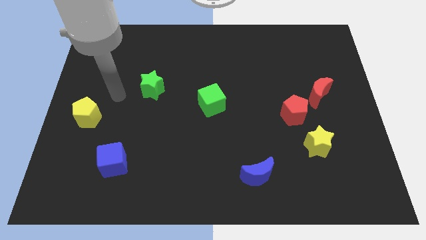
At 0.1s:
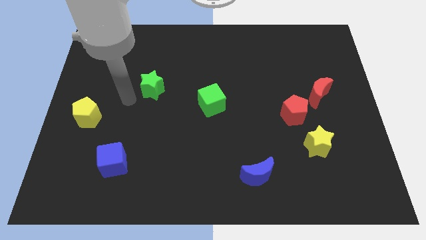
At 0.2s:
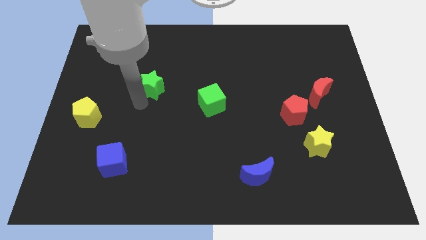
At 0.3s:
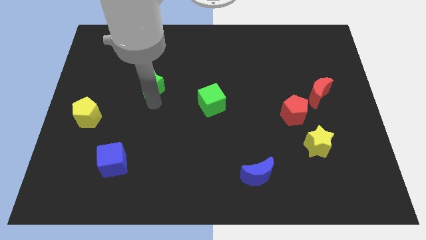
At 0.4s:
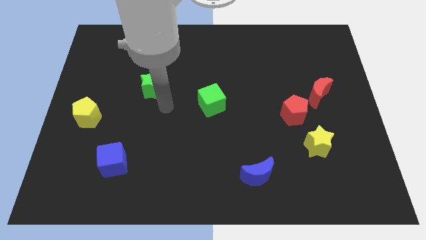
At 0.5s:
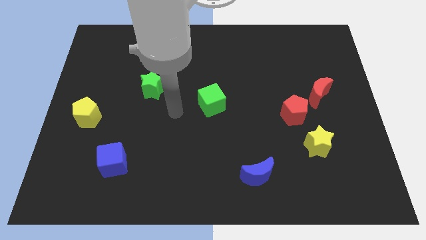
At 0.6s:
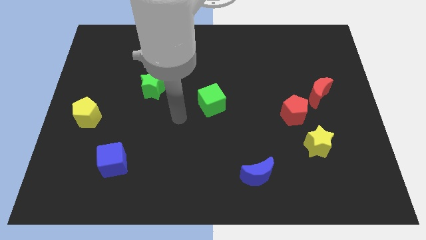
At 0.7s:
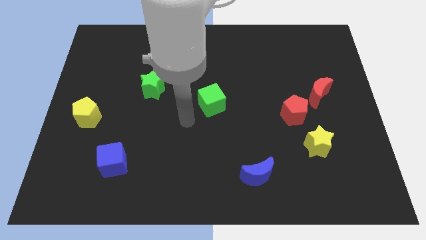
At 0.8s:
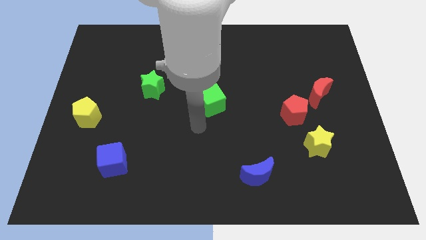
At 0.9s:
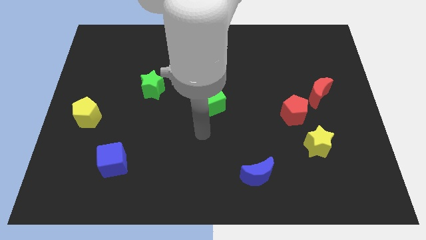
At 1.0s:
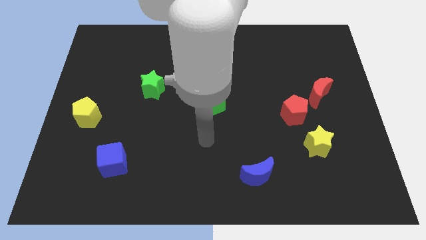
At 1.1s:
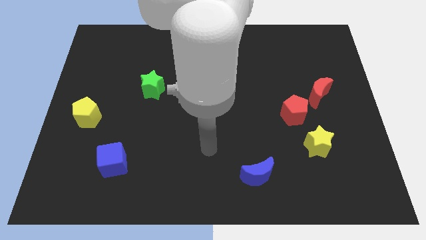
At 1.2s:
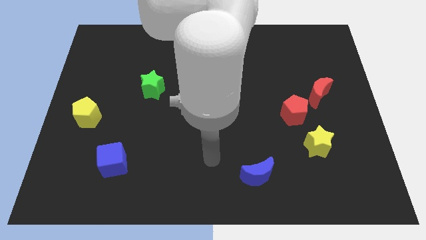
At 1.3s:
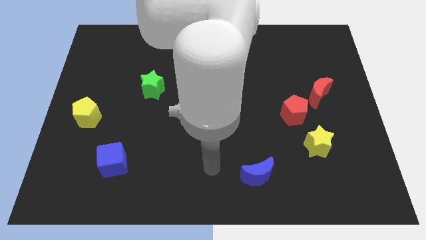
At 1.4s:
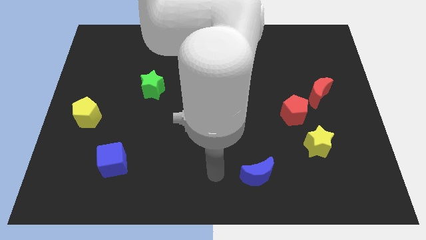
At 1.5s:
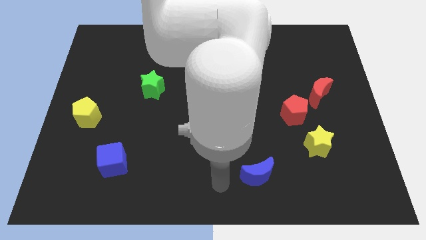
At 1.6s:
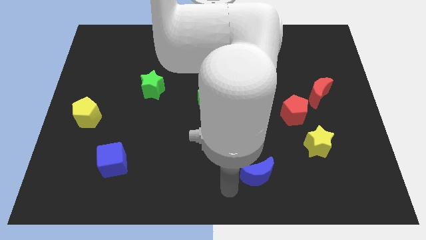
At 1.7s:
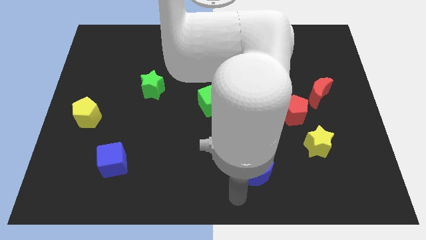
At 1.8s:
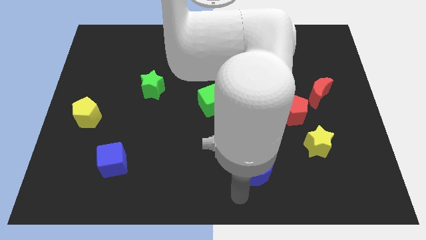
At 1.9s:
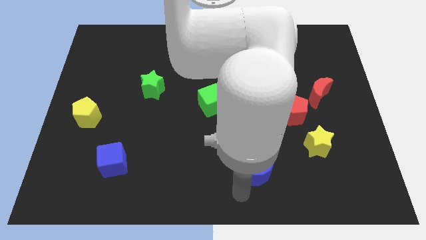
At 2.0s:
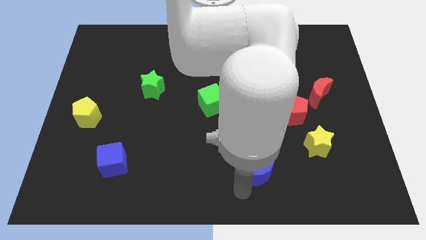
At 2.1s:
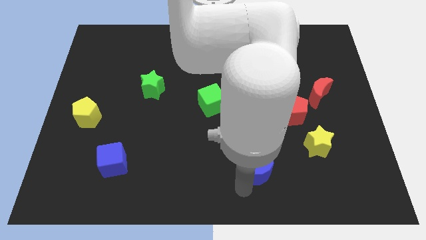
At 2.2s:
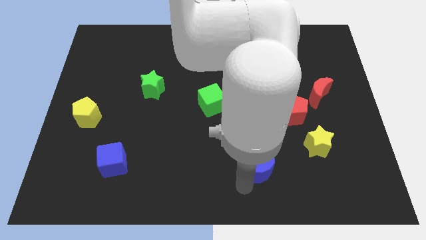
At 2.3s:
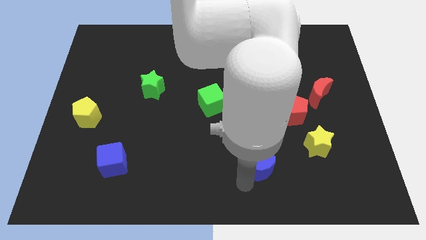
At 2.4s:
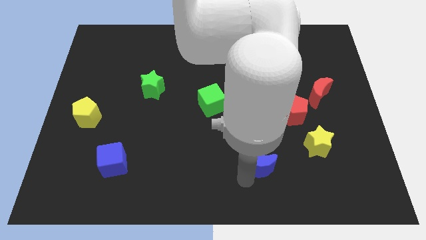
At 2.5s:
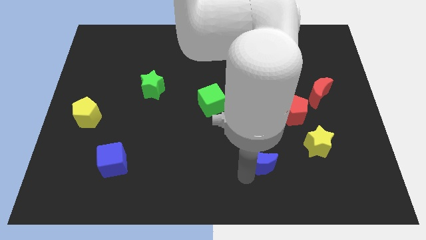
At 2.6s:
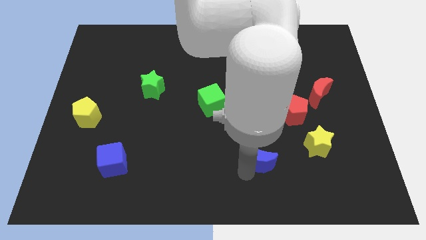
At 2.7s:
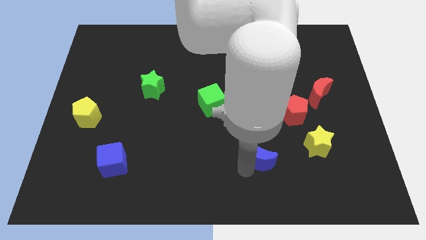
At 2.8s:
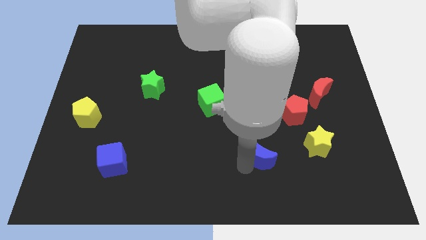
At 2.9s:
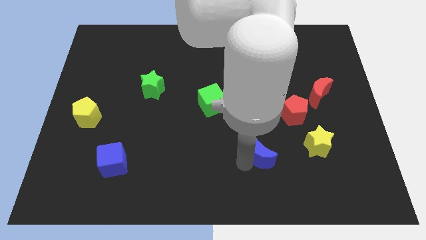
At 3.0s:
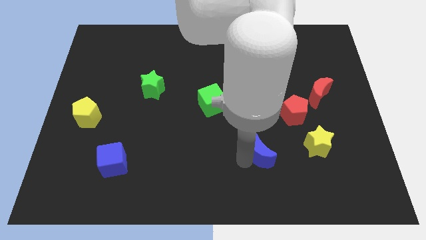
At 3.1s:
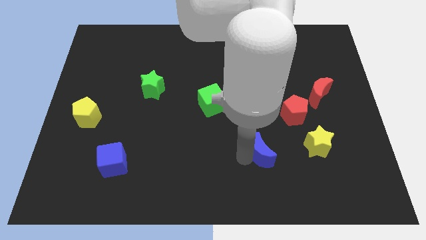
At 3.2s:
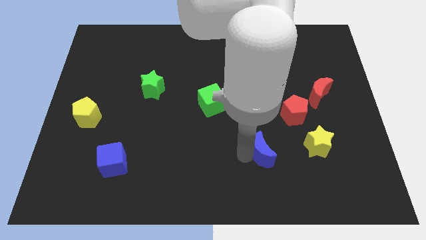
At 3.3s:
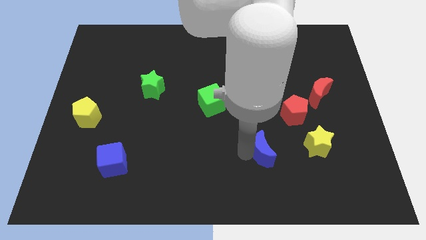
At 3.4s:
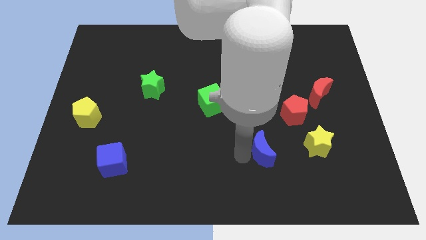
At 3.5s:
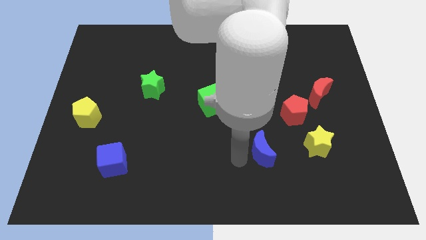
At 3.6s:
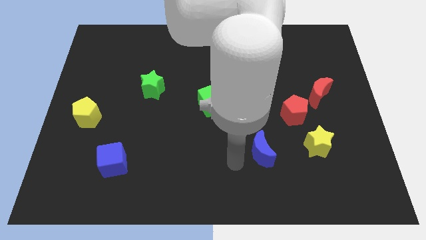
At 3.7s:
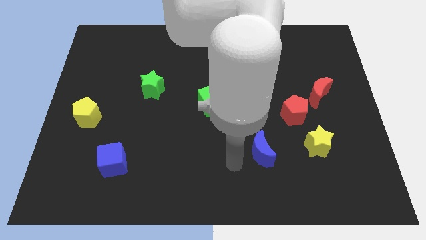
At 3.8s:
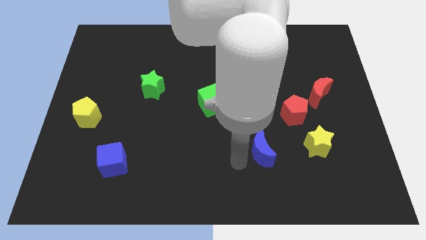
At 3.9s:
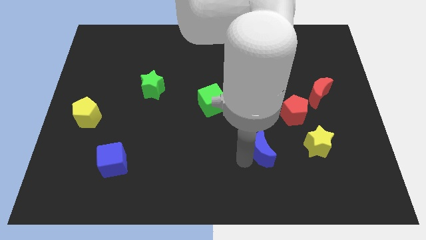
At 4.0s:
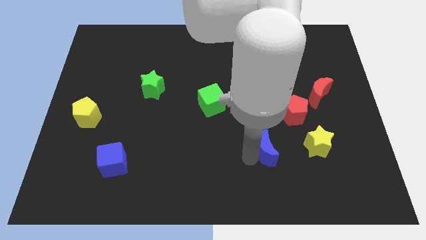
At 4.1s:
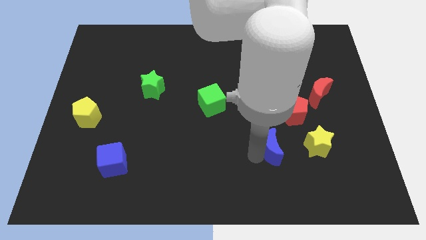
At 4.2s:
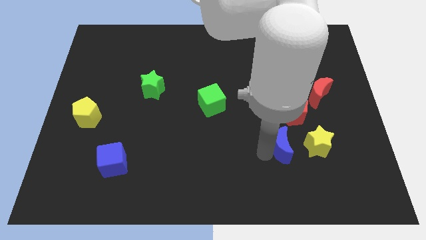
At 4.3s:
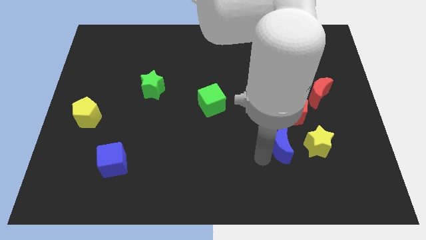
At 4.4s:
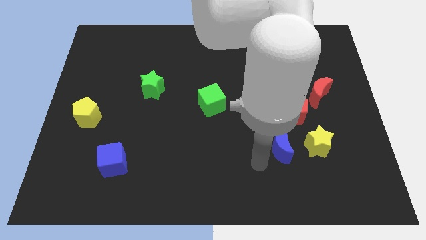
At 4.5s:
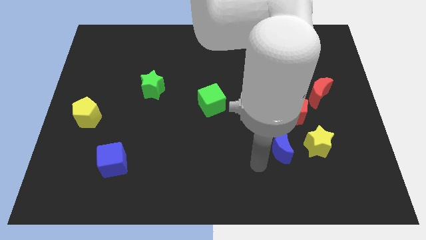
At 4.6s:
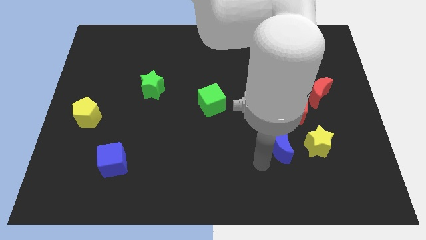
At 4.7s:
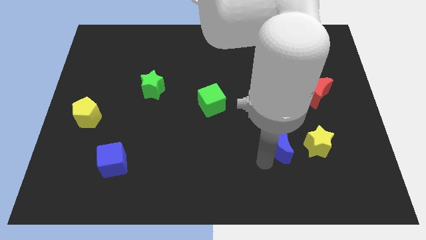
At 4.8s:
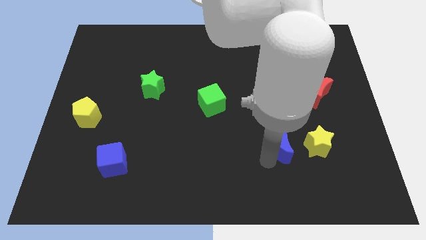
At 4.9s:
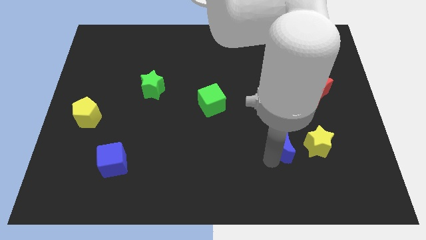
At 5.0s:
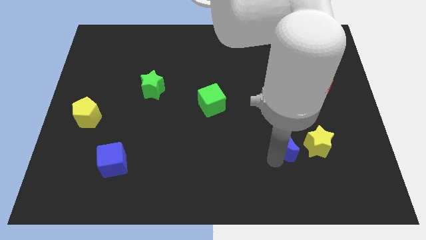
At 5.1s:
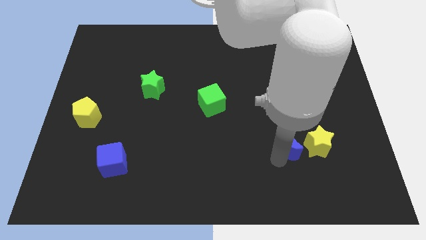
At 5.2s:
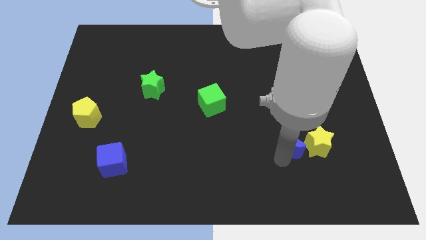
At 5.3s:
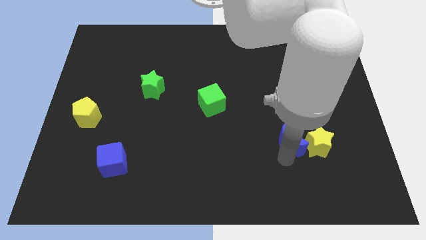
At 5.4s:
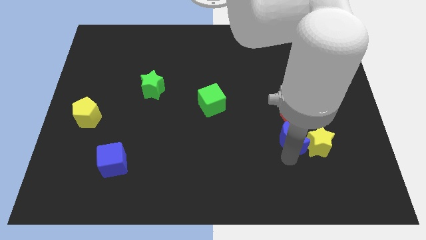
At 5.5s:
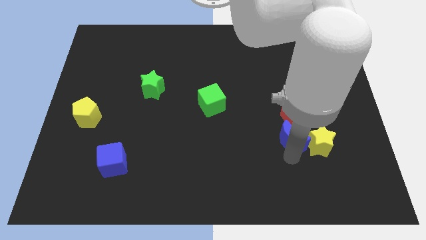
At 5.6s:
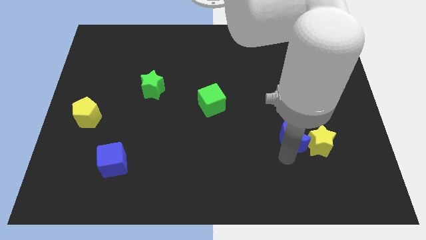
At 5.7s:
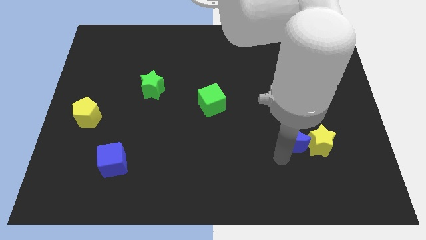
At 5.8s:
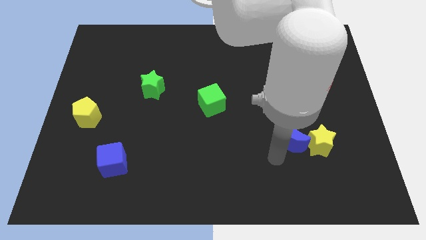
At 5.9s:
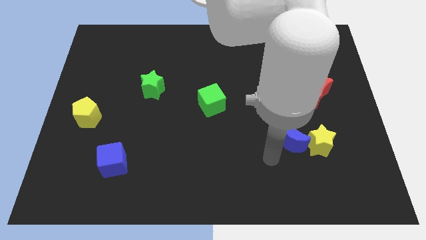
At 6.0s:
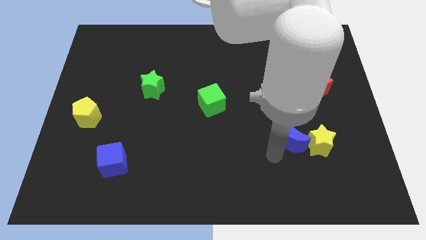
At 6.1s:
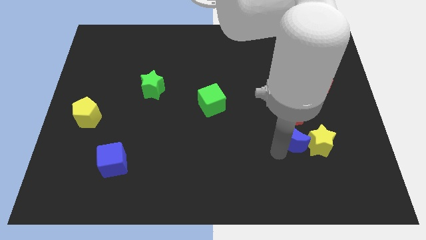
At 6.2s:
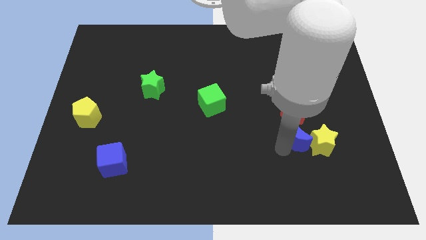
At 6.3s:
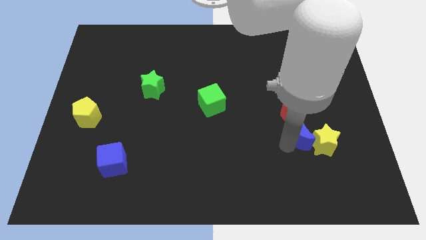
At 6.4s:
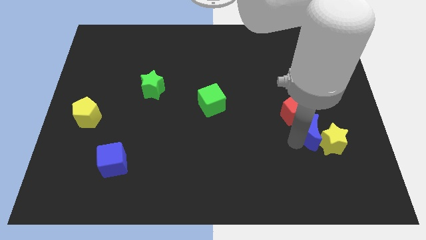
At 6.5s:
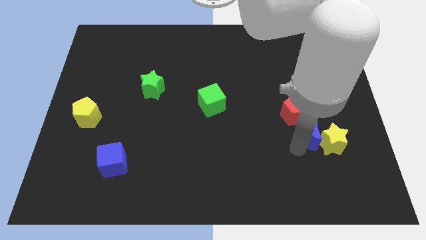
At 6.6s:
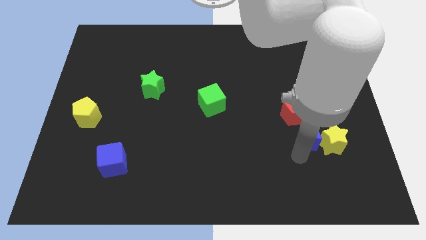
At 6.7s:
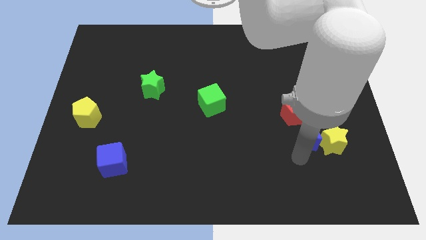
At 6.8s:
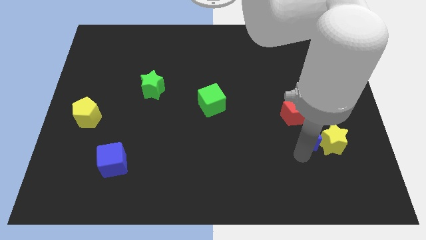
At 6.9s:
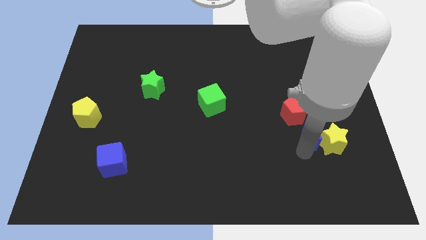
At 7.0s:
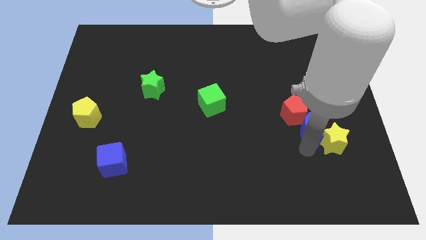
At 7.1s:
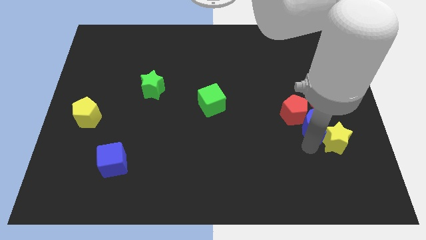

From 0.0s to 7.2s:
push the blue moon to the top of the yellow star
